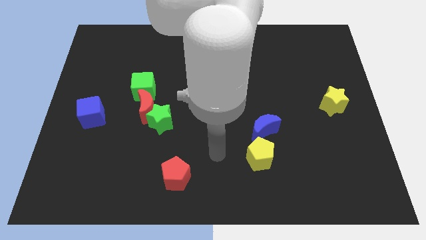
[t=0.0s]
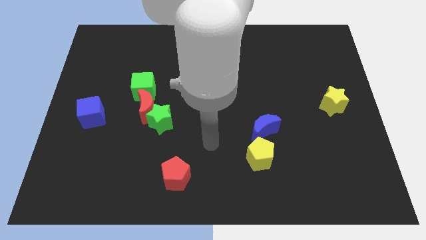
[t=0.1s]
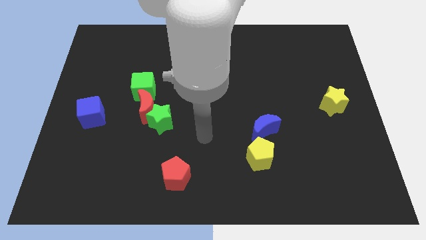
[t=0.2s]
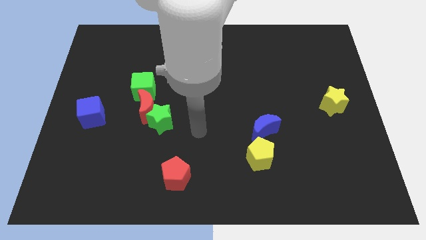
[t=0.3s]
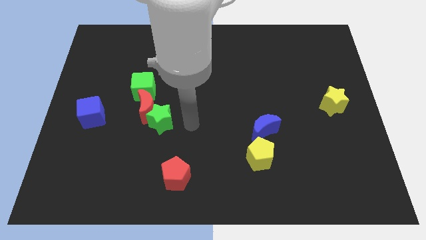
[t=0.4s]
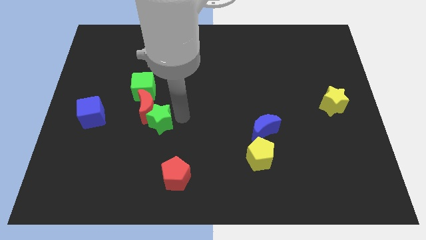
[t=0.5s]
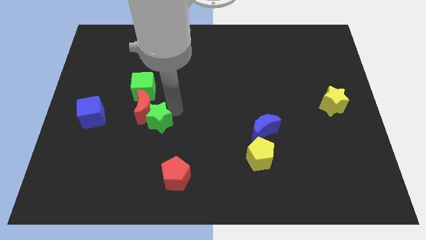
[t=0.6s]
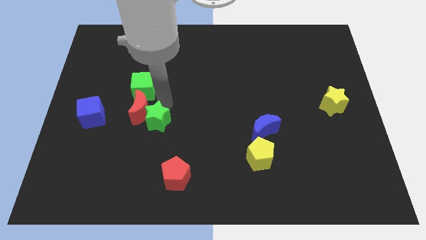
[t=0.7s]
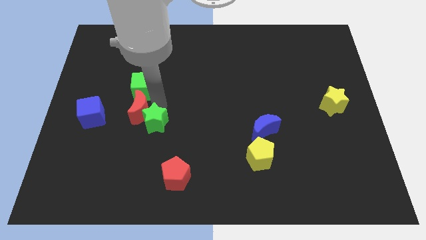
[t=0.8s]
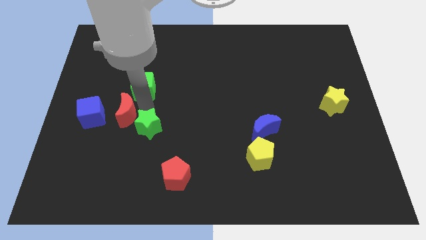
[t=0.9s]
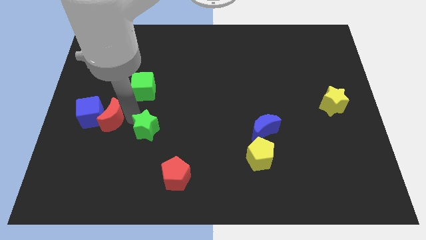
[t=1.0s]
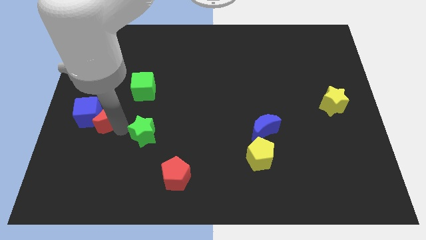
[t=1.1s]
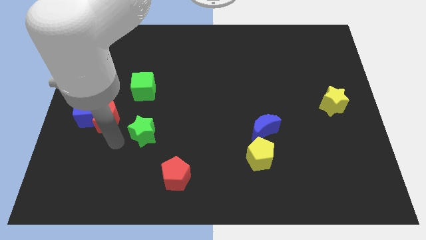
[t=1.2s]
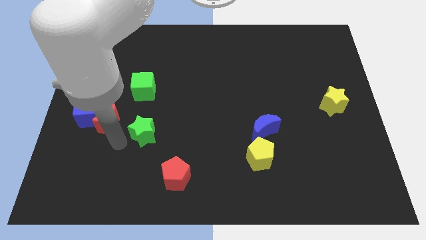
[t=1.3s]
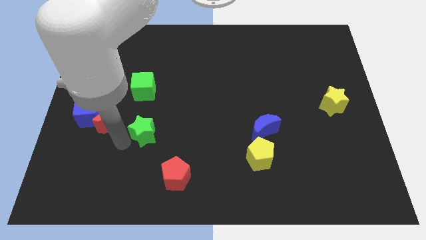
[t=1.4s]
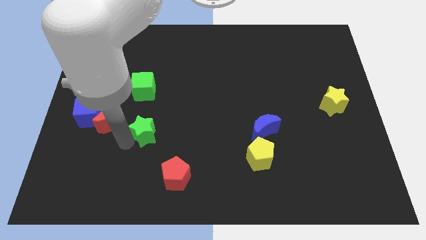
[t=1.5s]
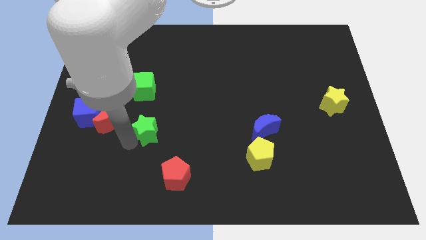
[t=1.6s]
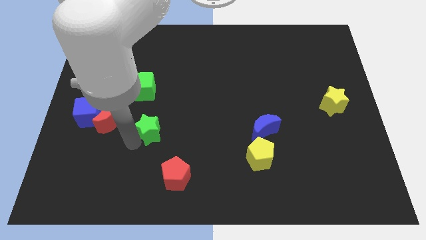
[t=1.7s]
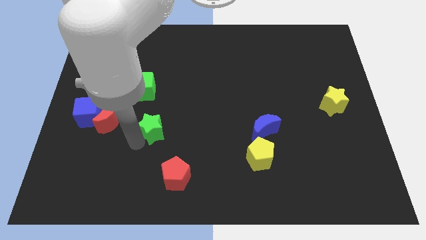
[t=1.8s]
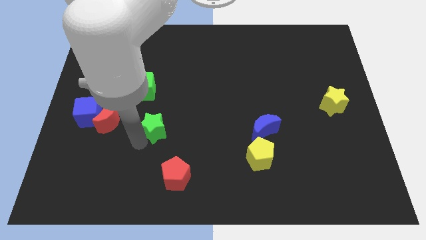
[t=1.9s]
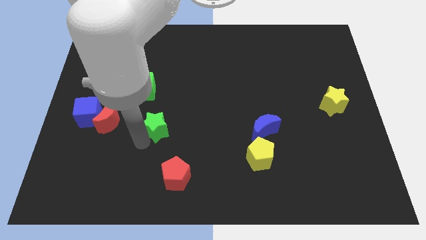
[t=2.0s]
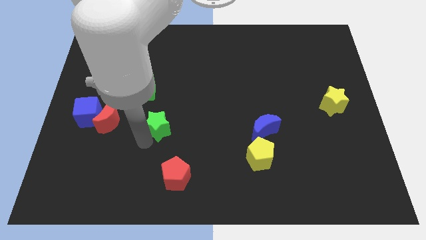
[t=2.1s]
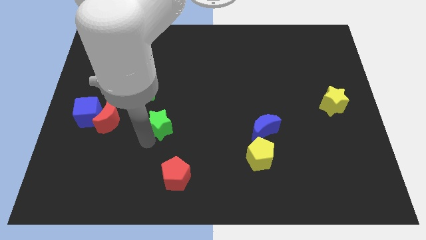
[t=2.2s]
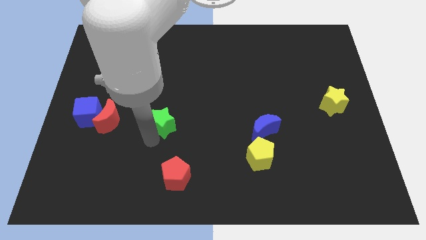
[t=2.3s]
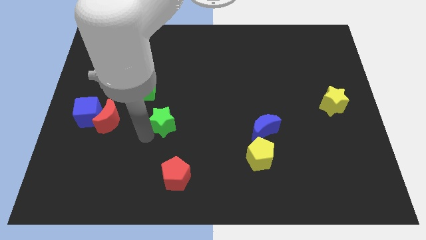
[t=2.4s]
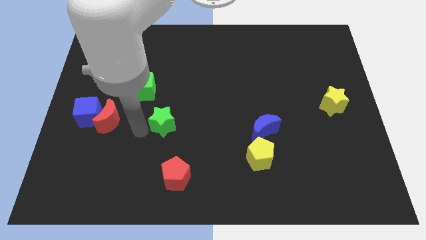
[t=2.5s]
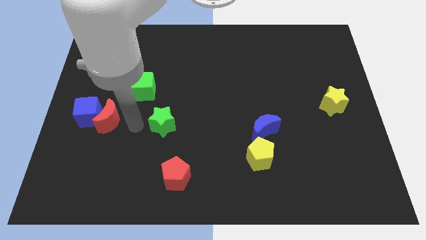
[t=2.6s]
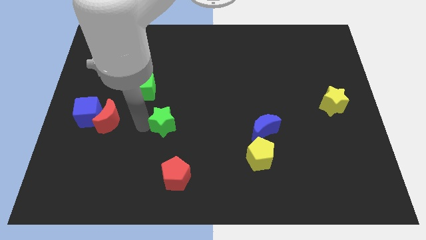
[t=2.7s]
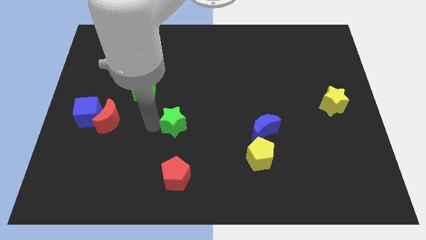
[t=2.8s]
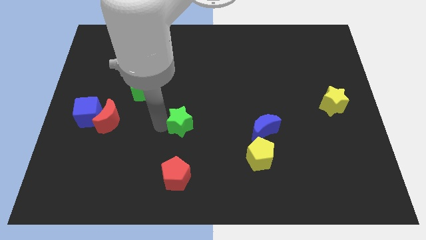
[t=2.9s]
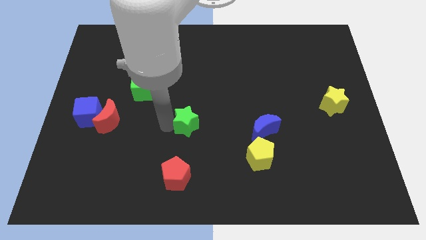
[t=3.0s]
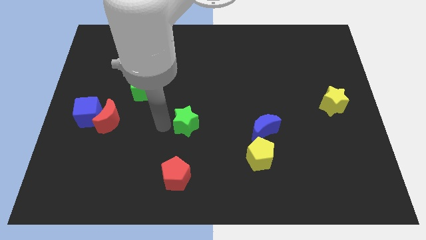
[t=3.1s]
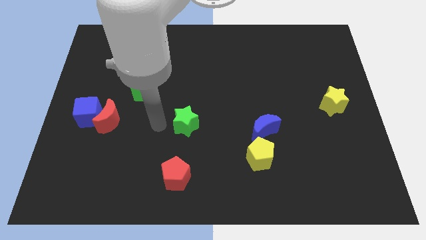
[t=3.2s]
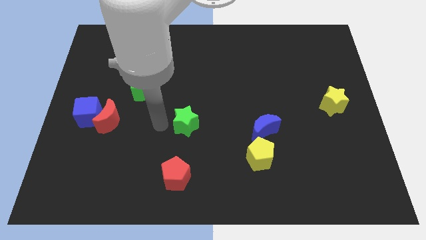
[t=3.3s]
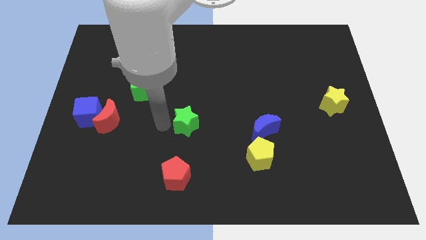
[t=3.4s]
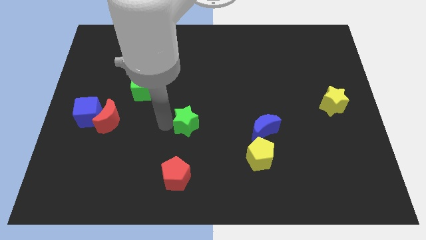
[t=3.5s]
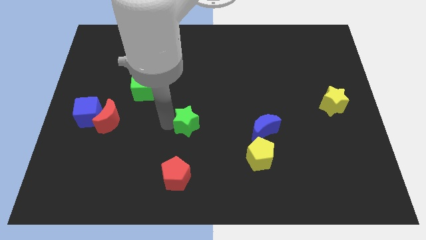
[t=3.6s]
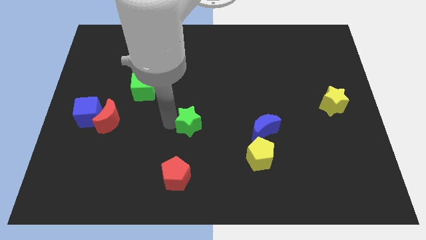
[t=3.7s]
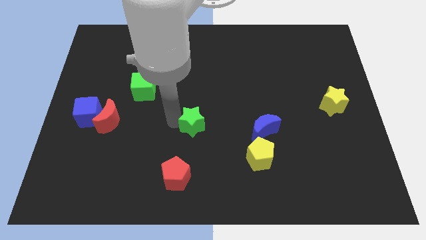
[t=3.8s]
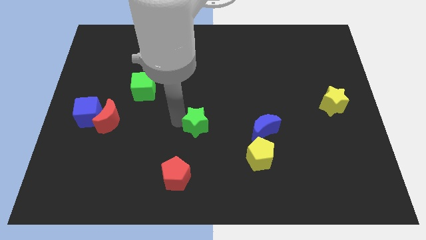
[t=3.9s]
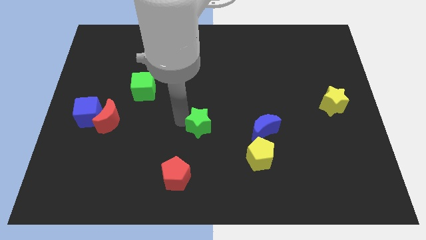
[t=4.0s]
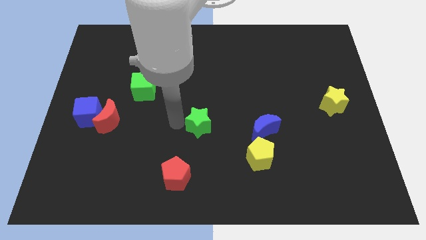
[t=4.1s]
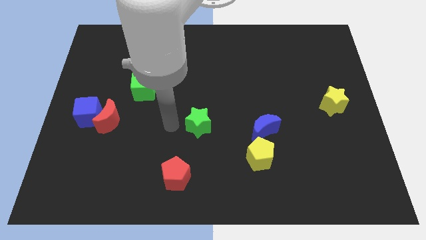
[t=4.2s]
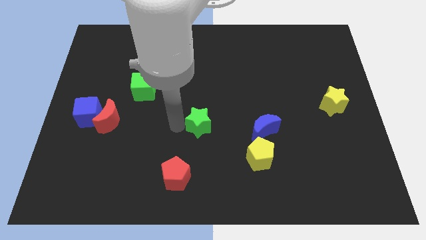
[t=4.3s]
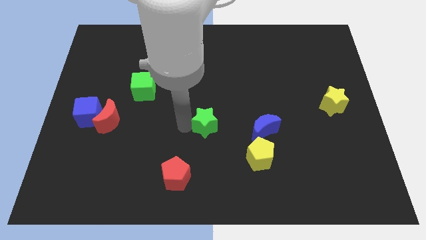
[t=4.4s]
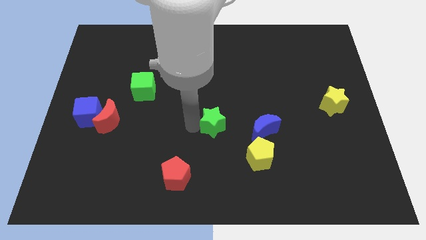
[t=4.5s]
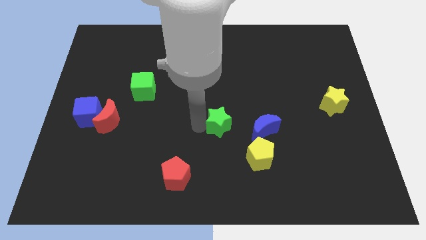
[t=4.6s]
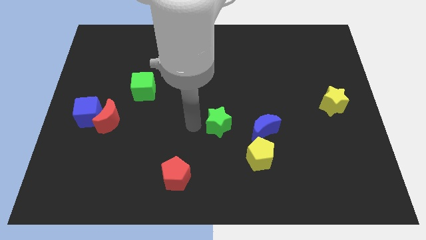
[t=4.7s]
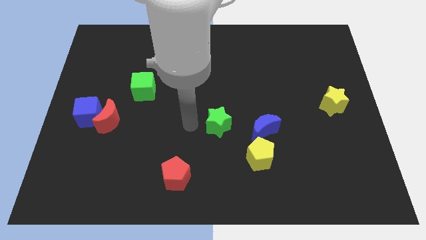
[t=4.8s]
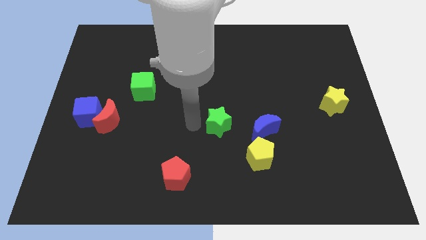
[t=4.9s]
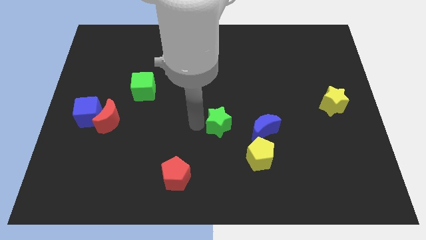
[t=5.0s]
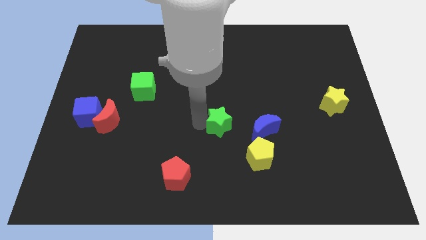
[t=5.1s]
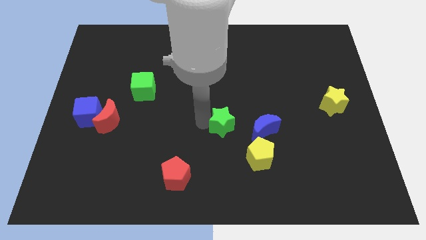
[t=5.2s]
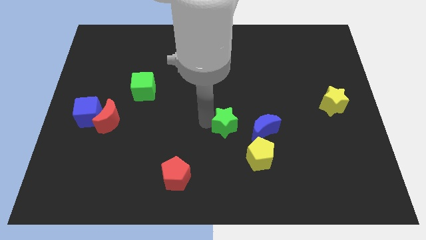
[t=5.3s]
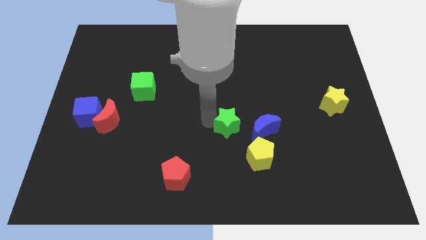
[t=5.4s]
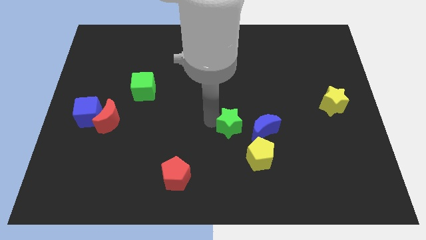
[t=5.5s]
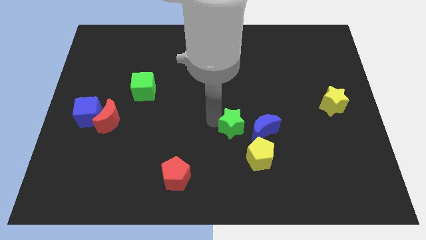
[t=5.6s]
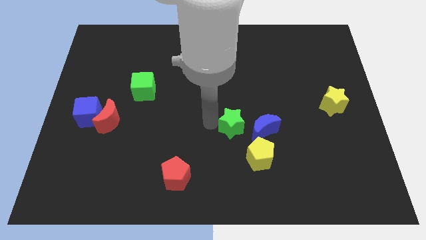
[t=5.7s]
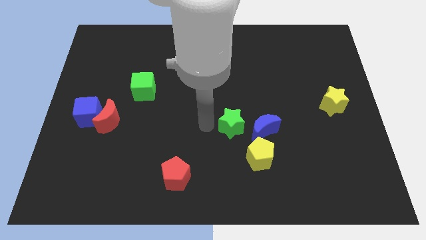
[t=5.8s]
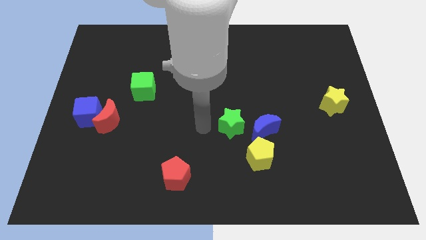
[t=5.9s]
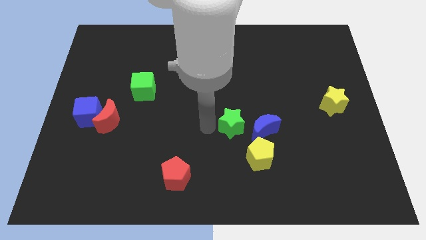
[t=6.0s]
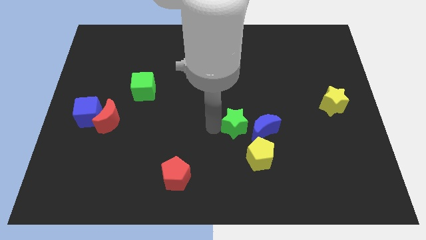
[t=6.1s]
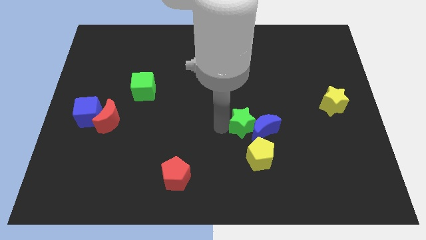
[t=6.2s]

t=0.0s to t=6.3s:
slide the green star close to the blue moon
